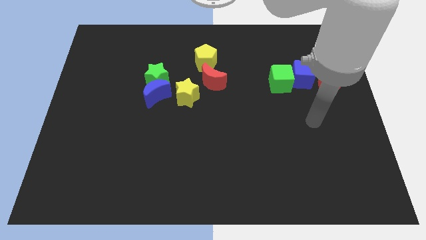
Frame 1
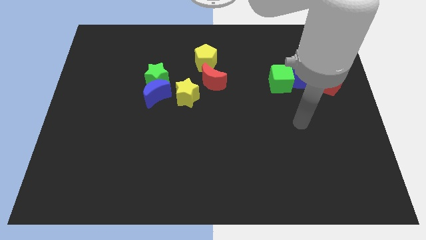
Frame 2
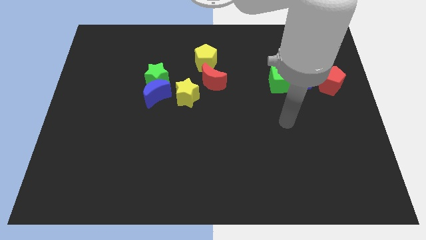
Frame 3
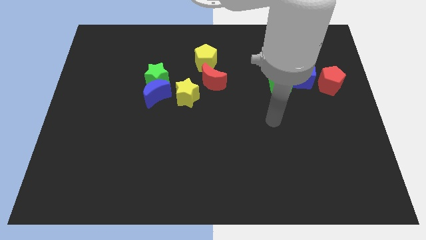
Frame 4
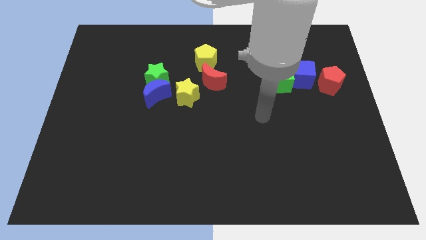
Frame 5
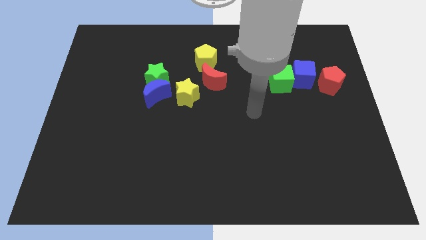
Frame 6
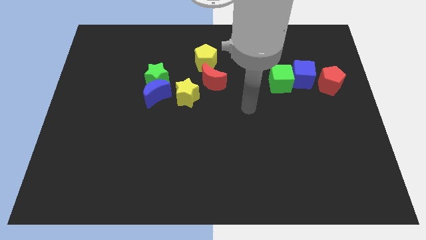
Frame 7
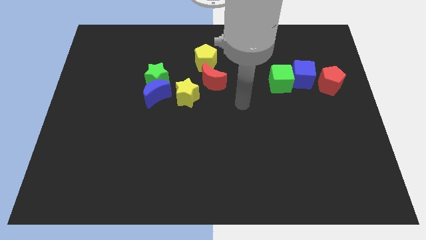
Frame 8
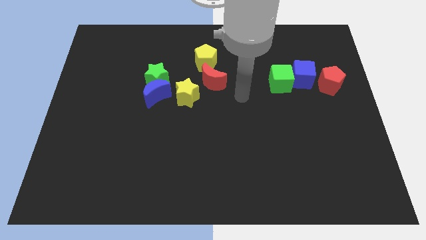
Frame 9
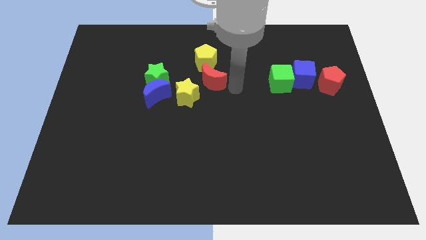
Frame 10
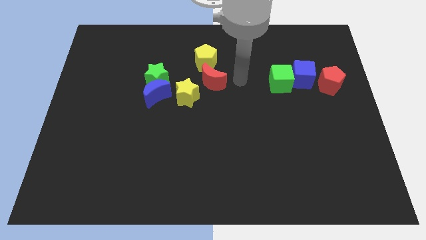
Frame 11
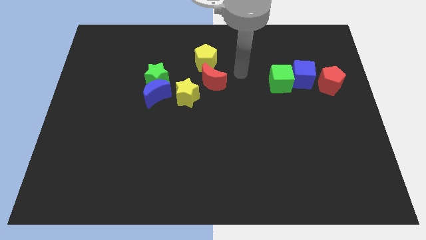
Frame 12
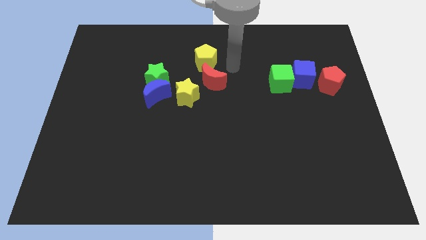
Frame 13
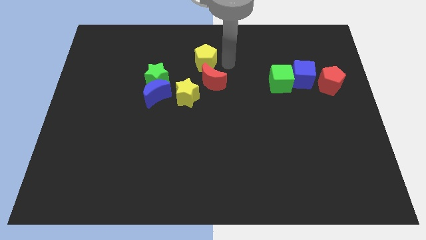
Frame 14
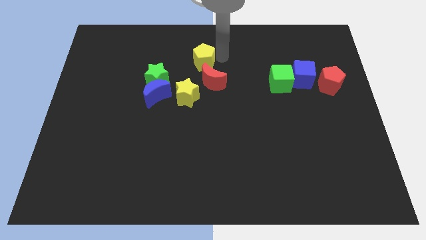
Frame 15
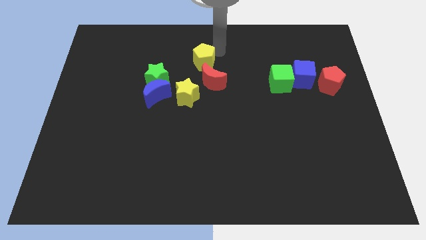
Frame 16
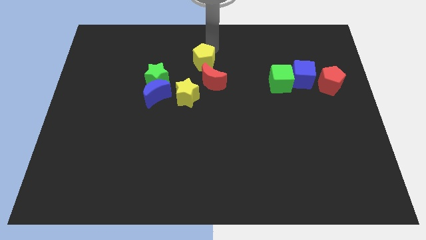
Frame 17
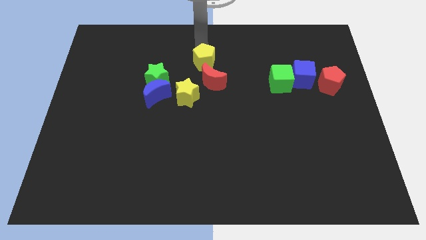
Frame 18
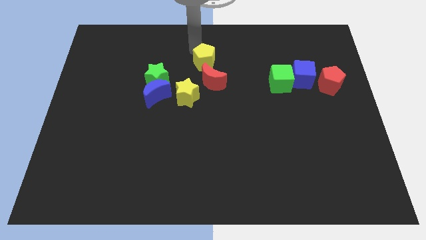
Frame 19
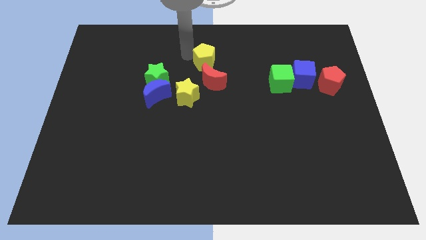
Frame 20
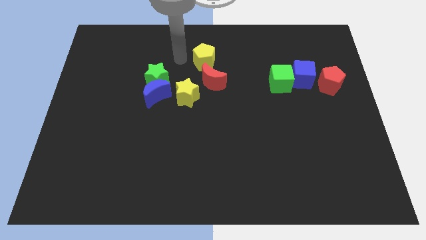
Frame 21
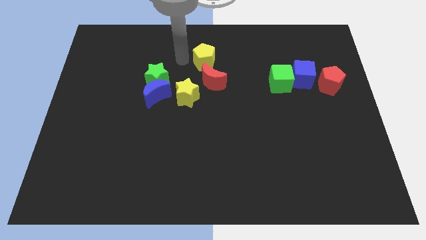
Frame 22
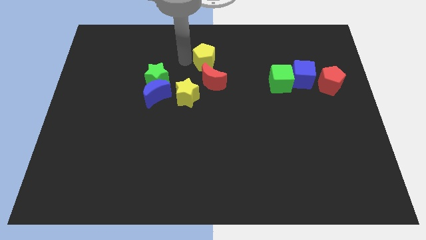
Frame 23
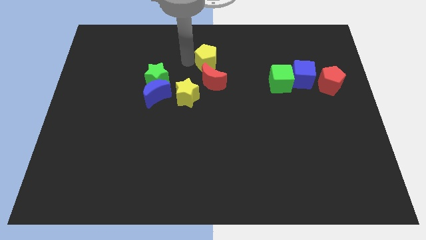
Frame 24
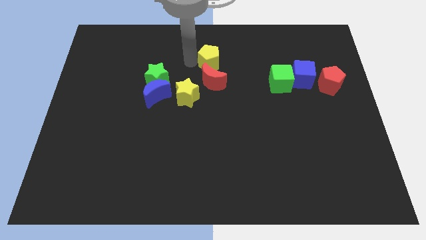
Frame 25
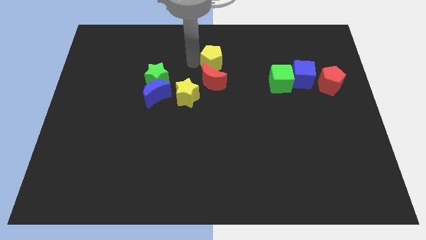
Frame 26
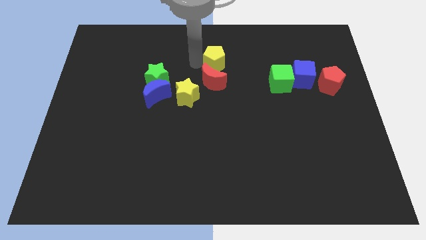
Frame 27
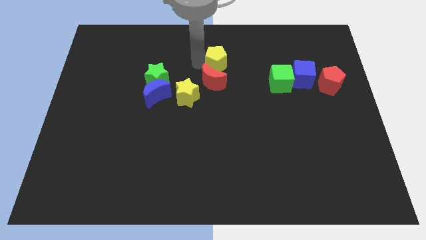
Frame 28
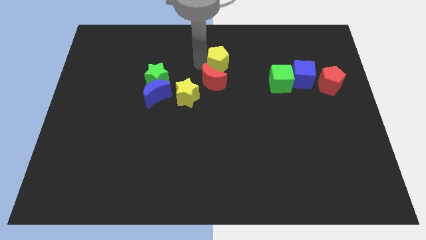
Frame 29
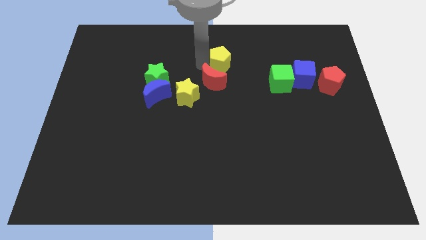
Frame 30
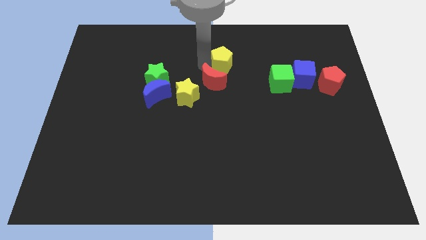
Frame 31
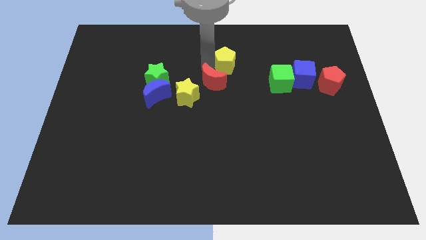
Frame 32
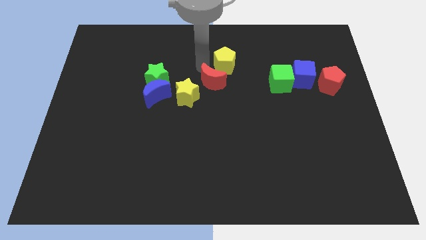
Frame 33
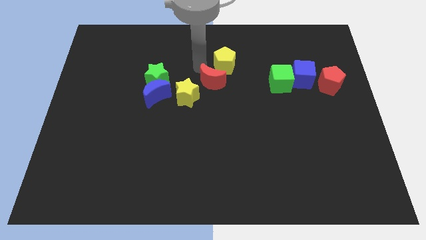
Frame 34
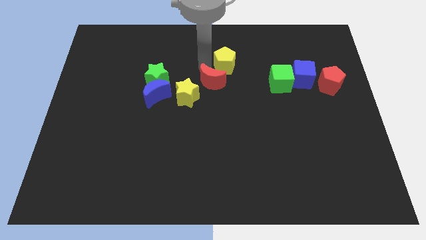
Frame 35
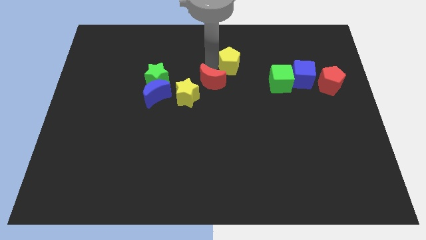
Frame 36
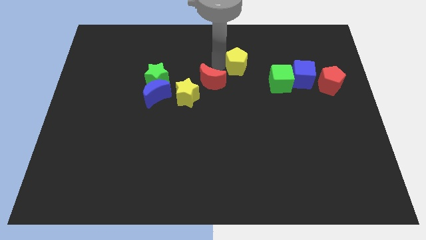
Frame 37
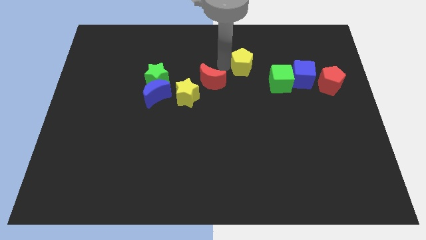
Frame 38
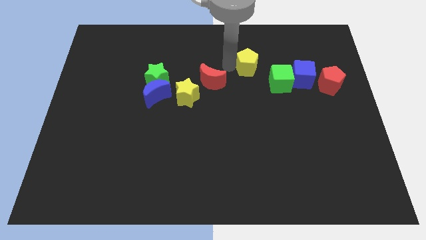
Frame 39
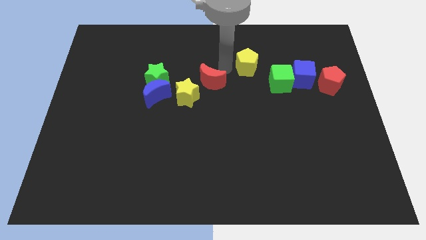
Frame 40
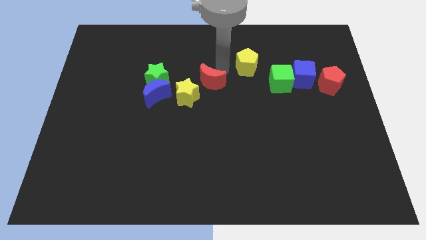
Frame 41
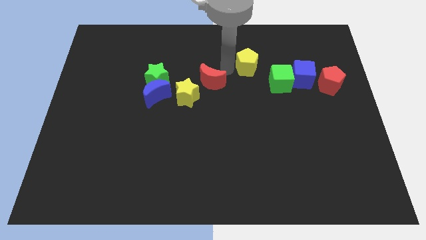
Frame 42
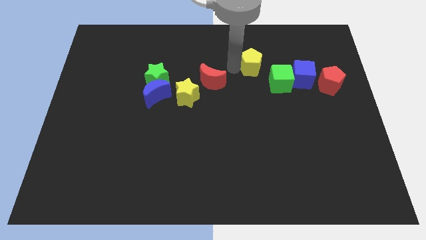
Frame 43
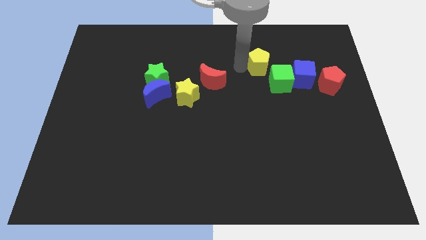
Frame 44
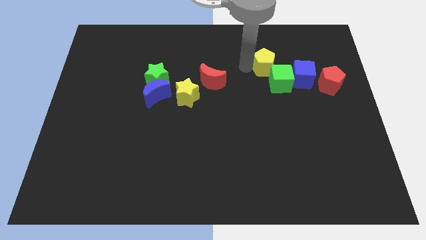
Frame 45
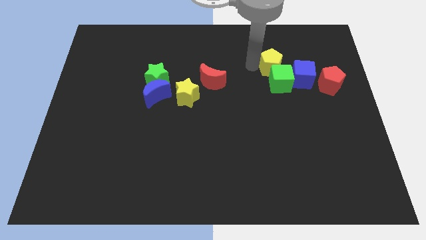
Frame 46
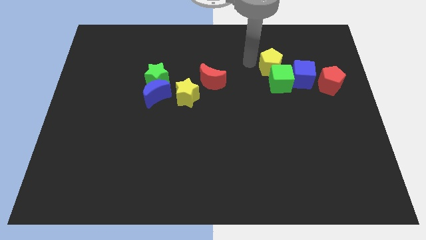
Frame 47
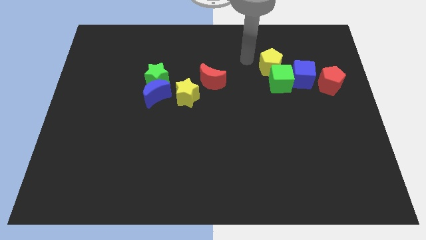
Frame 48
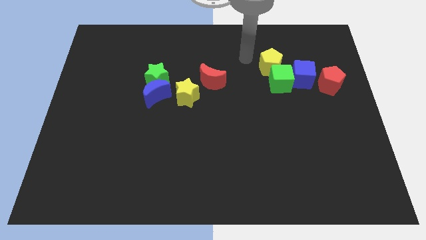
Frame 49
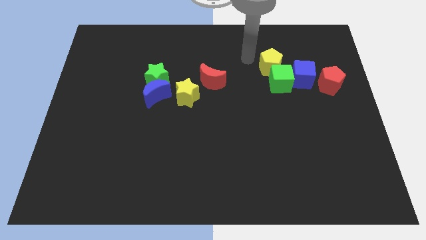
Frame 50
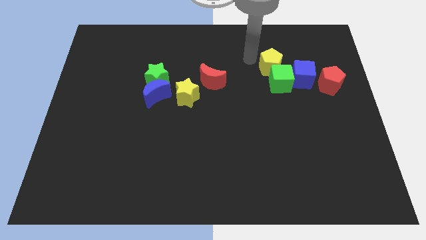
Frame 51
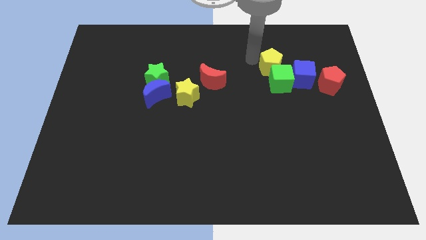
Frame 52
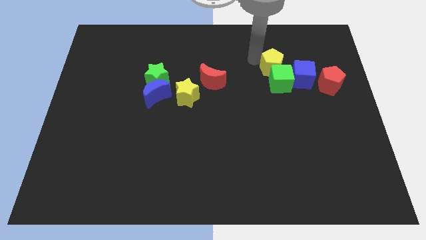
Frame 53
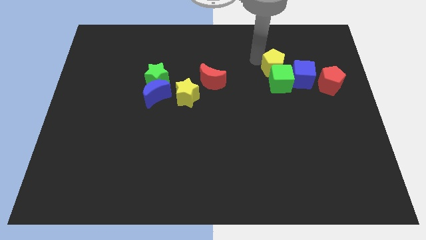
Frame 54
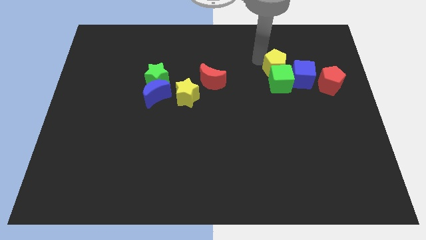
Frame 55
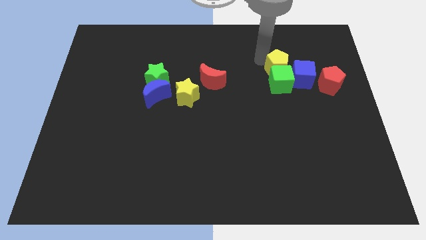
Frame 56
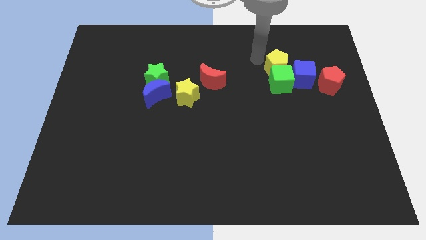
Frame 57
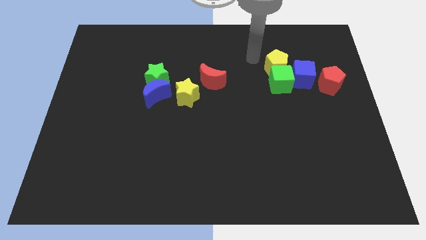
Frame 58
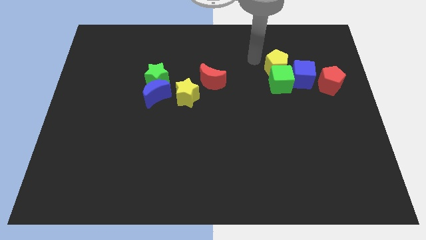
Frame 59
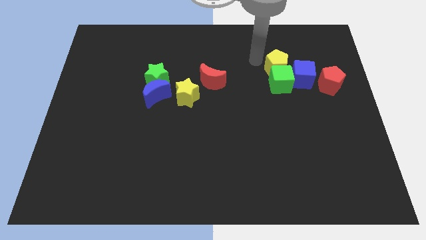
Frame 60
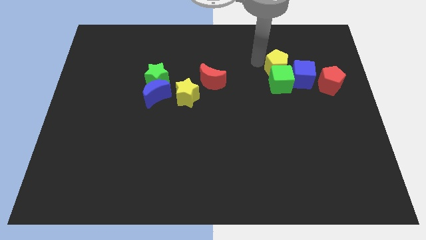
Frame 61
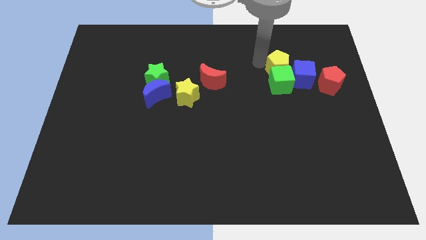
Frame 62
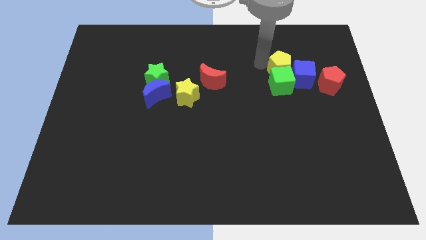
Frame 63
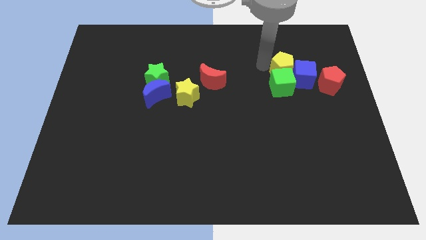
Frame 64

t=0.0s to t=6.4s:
put the yellow pentagon to the blue cube

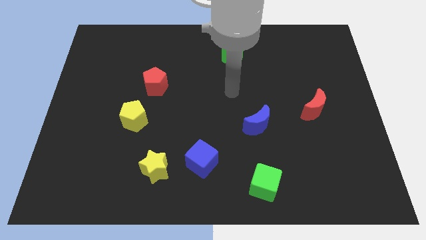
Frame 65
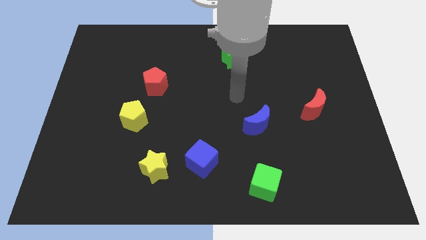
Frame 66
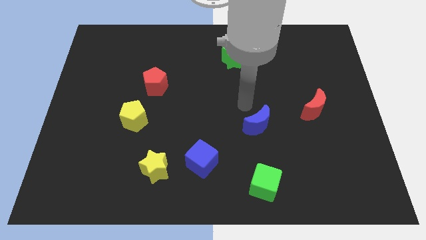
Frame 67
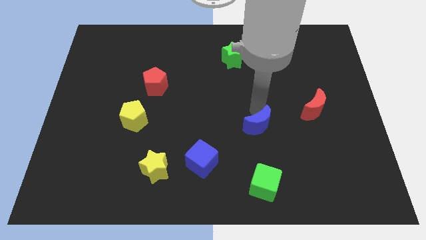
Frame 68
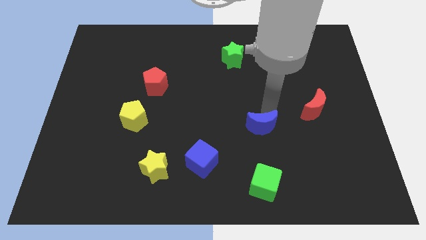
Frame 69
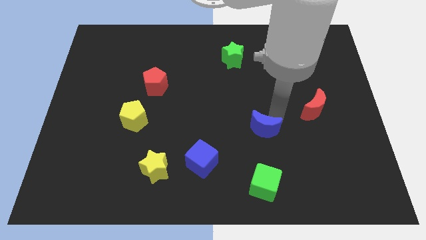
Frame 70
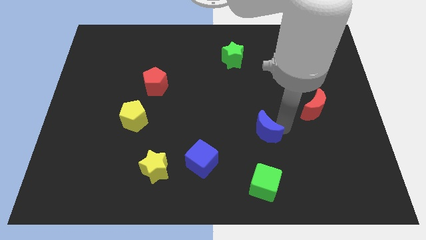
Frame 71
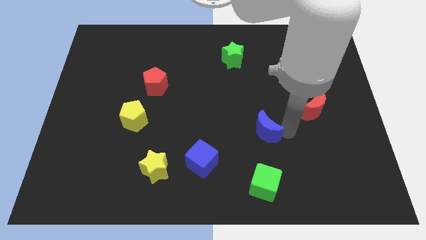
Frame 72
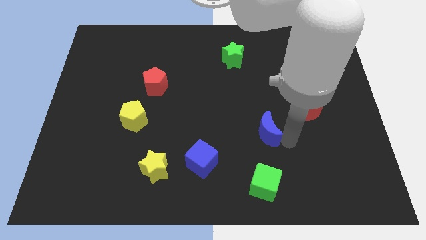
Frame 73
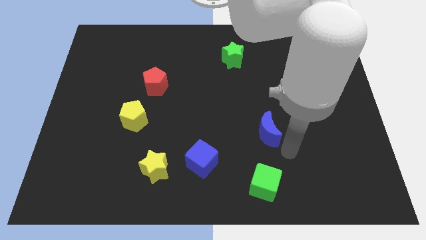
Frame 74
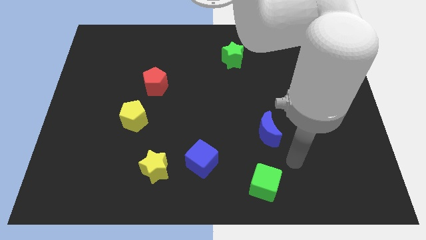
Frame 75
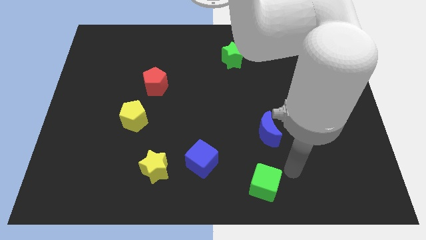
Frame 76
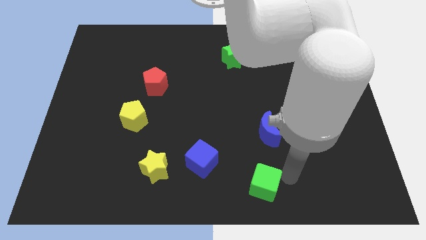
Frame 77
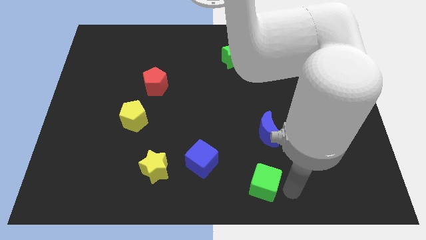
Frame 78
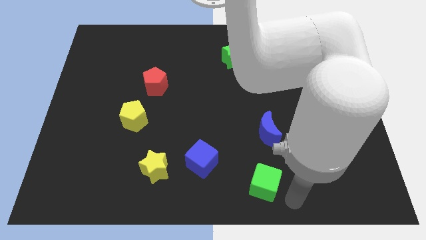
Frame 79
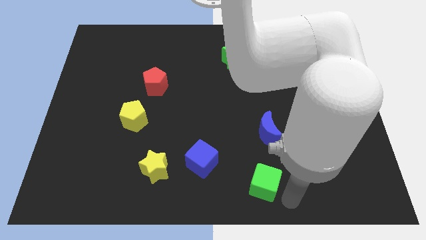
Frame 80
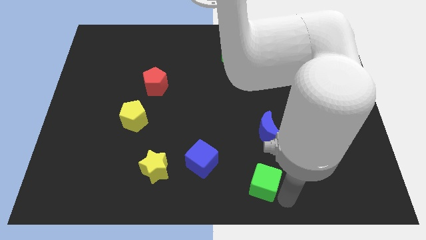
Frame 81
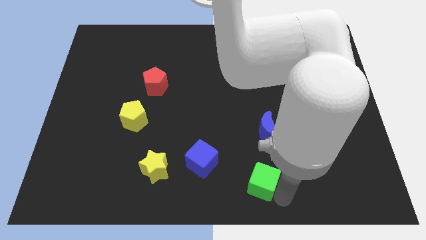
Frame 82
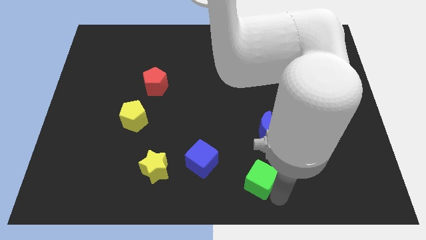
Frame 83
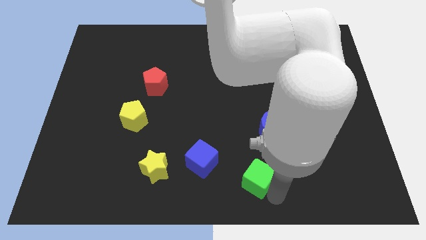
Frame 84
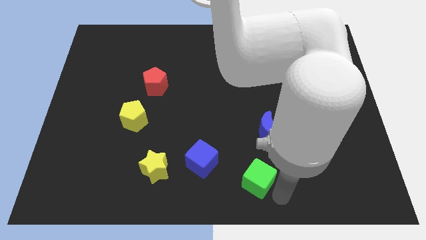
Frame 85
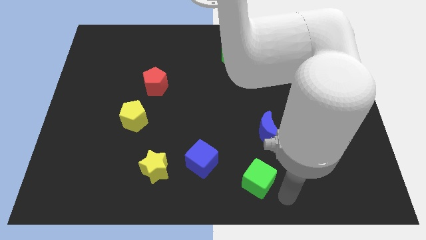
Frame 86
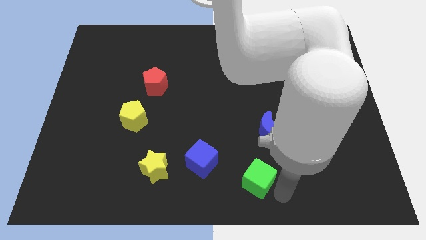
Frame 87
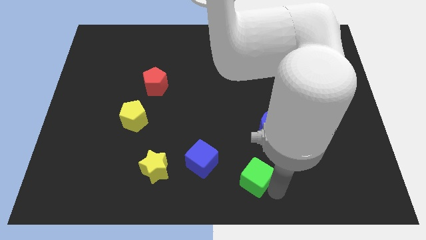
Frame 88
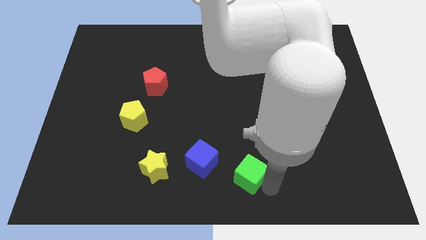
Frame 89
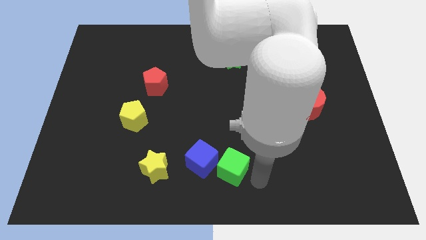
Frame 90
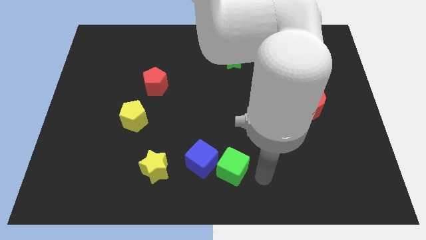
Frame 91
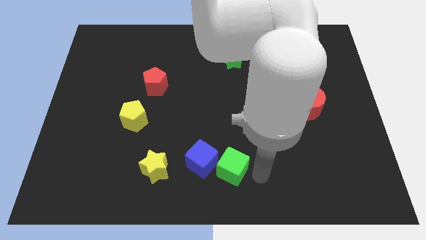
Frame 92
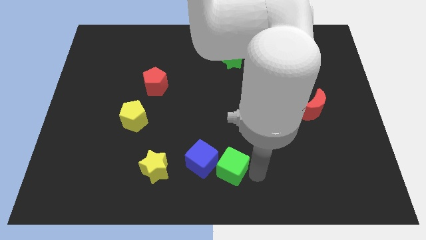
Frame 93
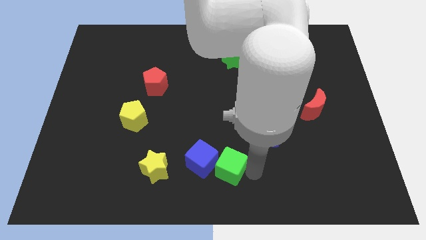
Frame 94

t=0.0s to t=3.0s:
push the green cube towards the blue cube
